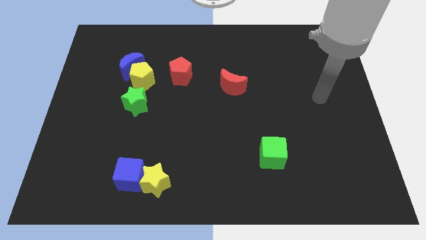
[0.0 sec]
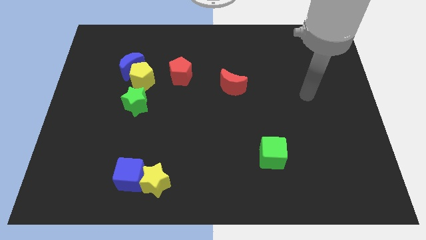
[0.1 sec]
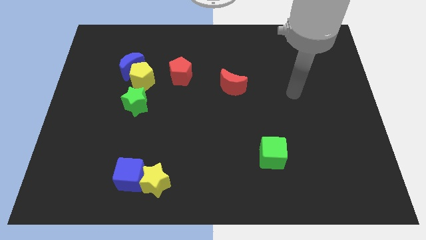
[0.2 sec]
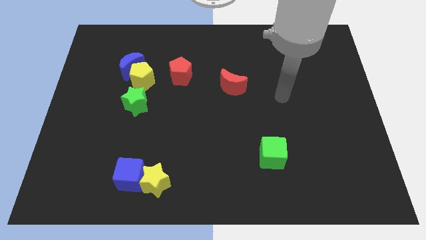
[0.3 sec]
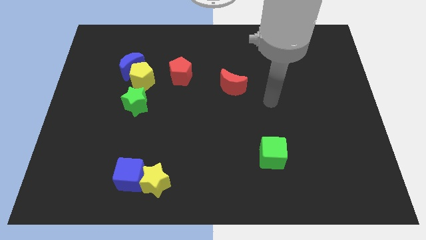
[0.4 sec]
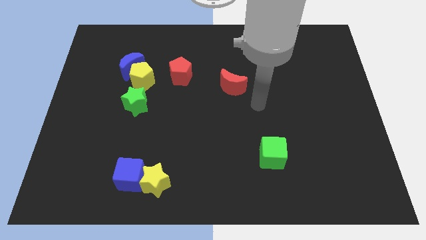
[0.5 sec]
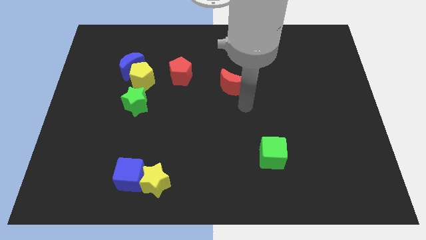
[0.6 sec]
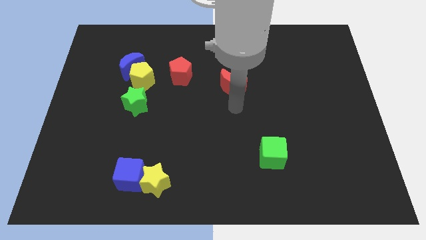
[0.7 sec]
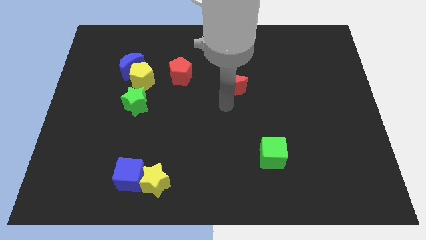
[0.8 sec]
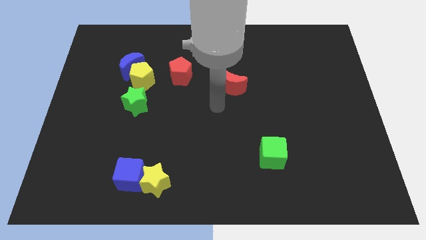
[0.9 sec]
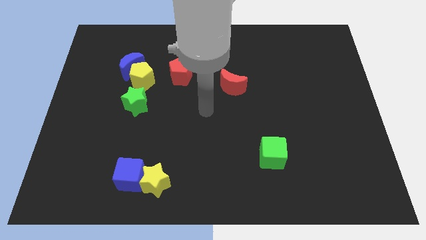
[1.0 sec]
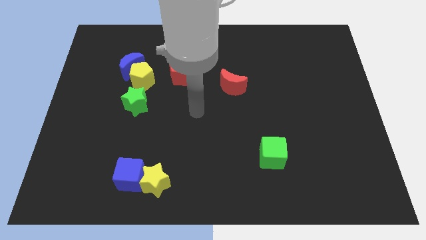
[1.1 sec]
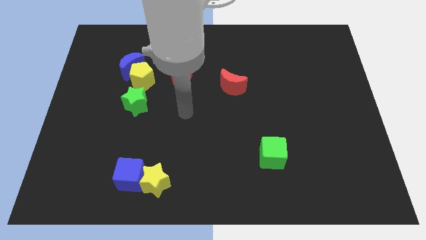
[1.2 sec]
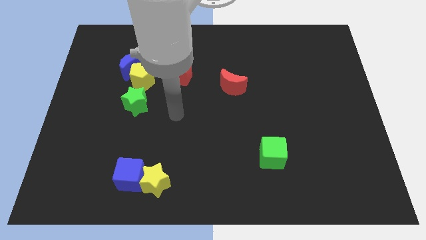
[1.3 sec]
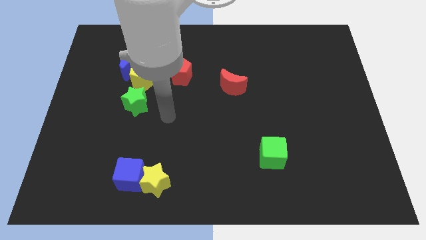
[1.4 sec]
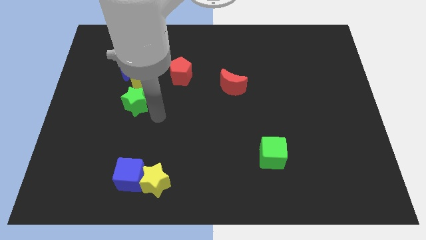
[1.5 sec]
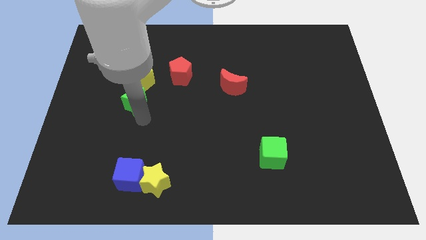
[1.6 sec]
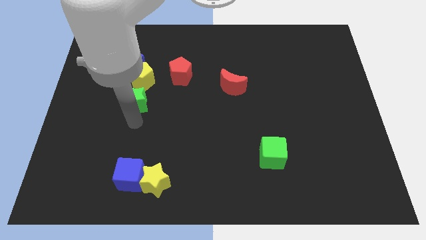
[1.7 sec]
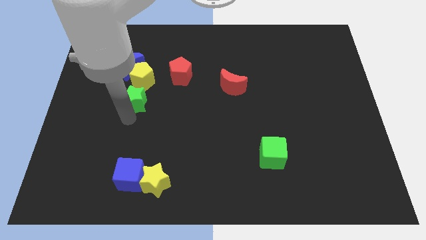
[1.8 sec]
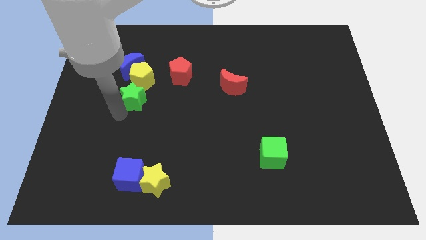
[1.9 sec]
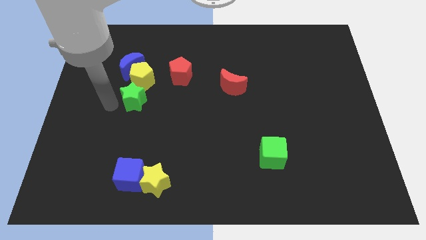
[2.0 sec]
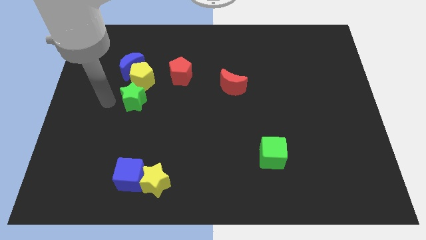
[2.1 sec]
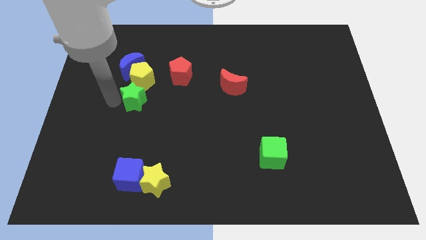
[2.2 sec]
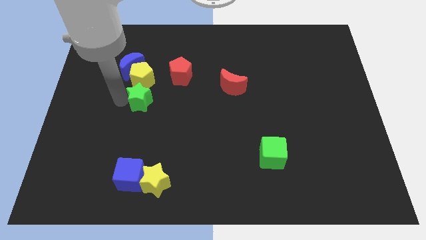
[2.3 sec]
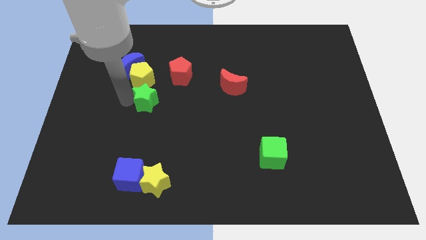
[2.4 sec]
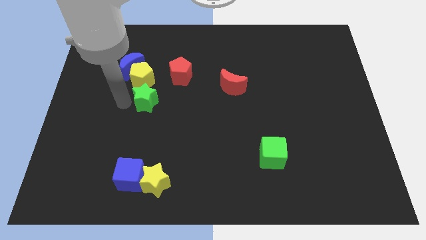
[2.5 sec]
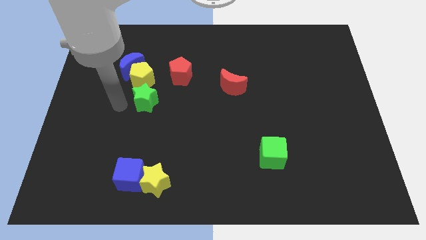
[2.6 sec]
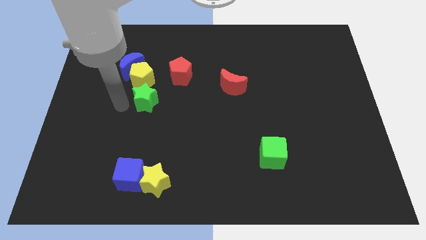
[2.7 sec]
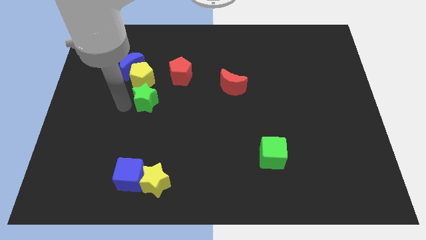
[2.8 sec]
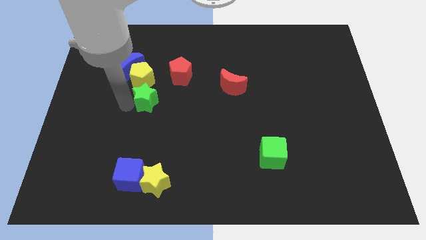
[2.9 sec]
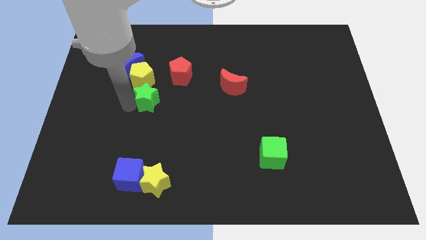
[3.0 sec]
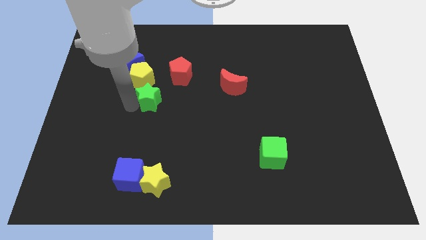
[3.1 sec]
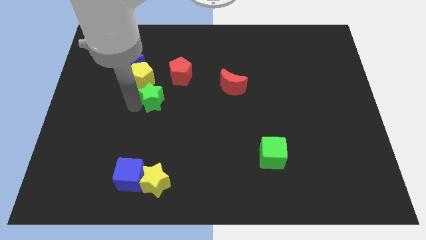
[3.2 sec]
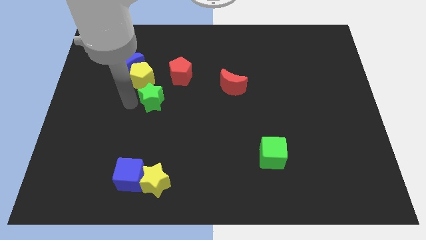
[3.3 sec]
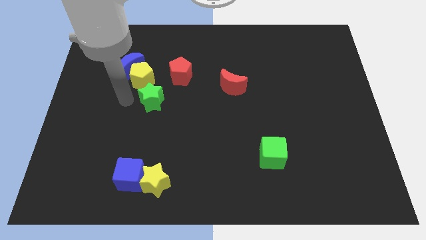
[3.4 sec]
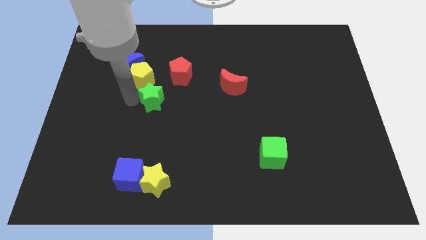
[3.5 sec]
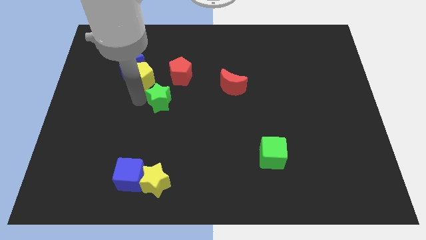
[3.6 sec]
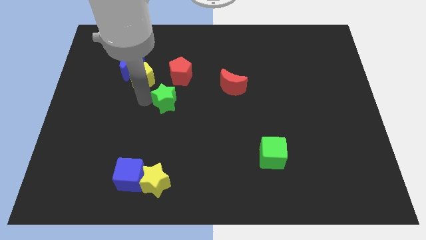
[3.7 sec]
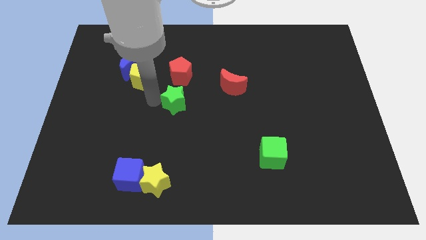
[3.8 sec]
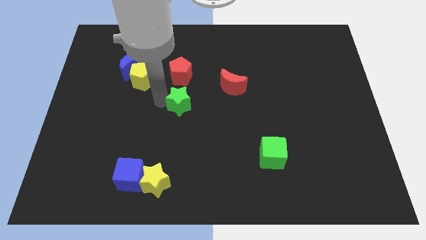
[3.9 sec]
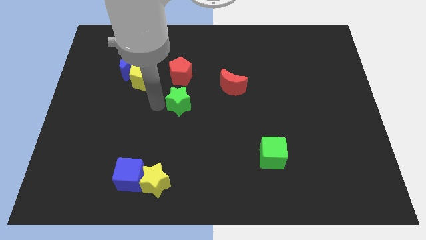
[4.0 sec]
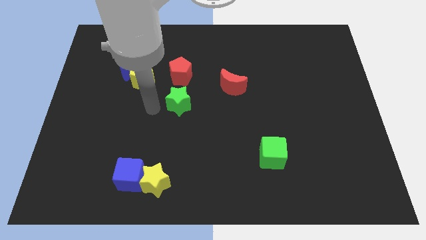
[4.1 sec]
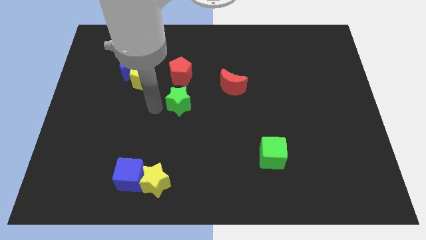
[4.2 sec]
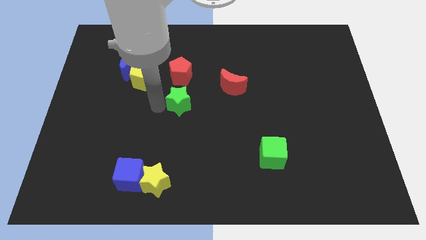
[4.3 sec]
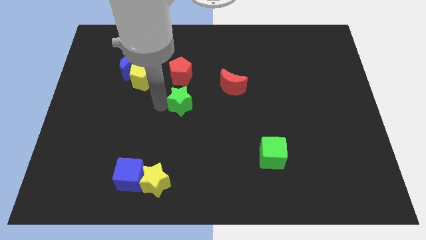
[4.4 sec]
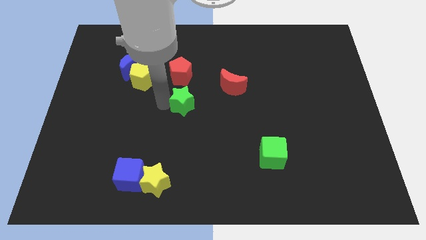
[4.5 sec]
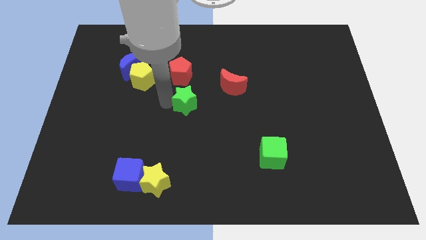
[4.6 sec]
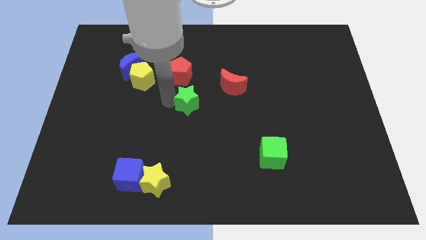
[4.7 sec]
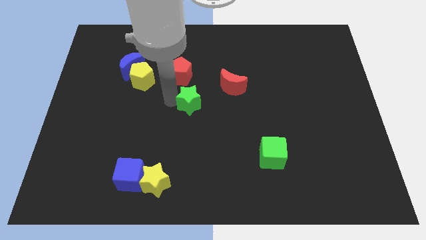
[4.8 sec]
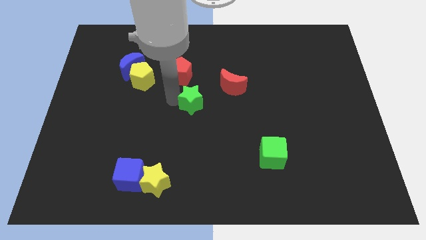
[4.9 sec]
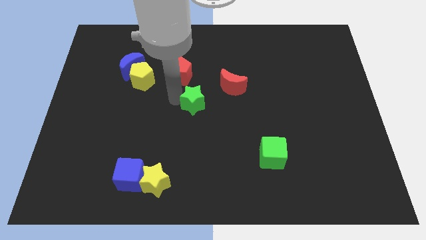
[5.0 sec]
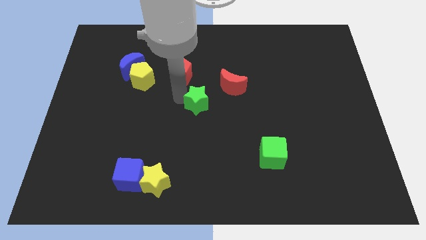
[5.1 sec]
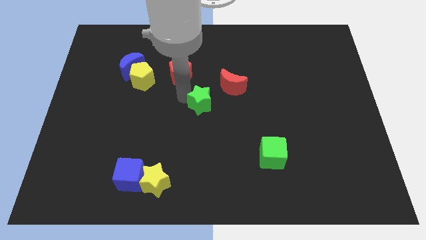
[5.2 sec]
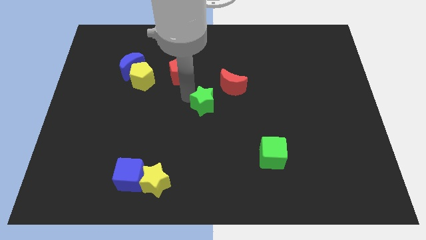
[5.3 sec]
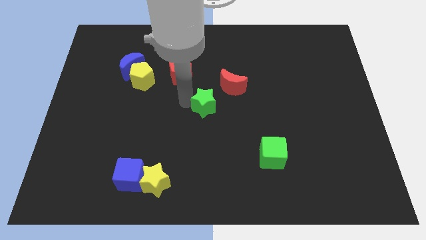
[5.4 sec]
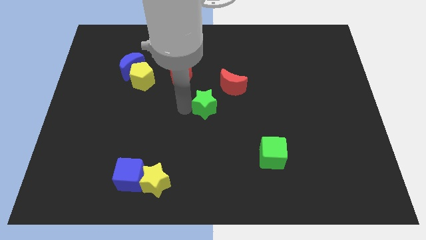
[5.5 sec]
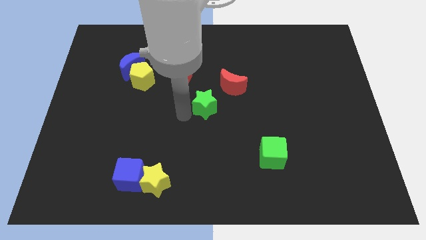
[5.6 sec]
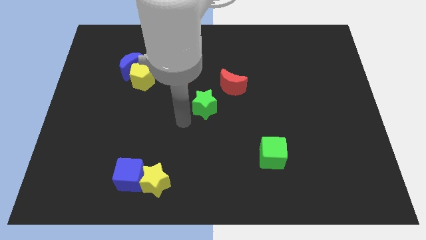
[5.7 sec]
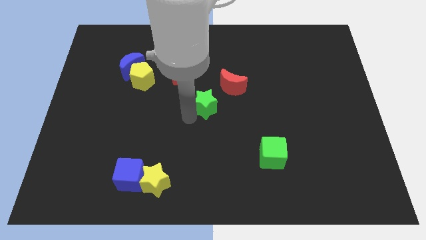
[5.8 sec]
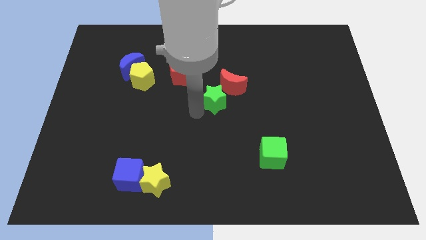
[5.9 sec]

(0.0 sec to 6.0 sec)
put the green star close to the red moon

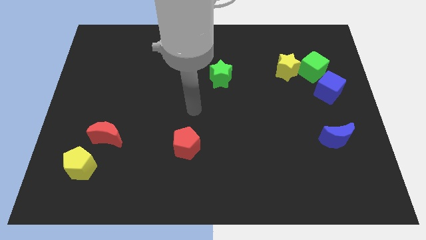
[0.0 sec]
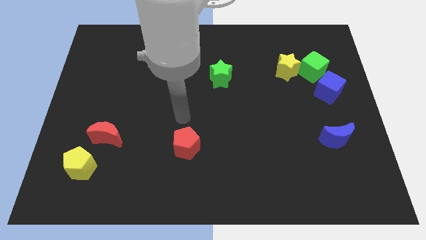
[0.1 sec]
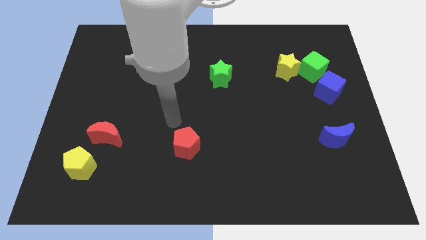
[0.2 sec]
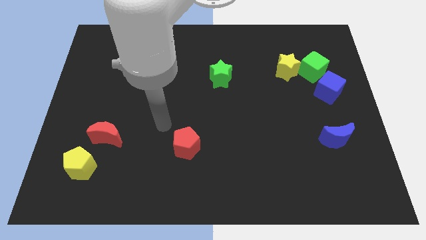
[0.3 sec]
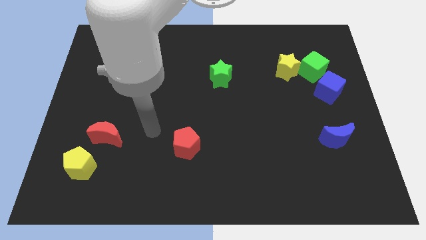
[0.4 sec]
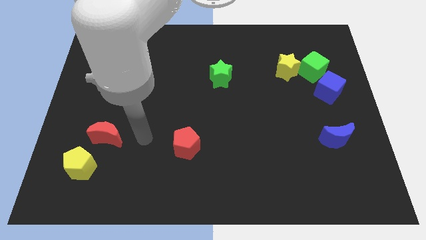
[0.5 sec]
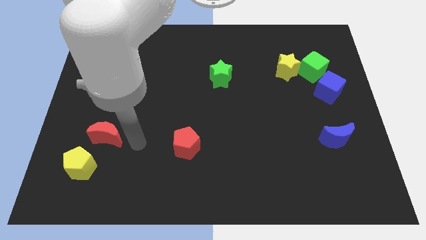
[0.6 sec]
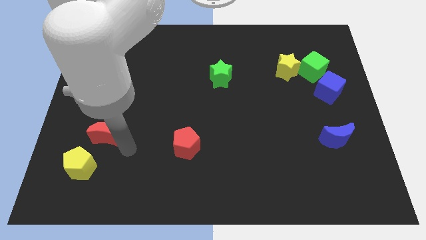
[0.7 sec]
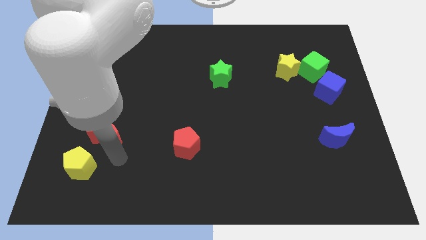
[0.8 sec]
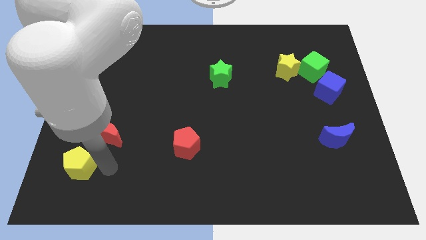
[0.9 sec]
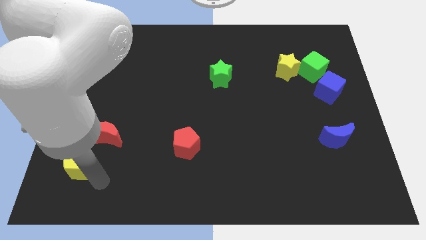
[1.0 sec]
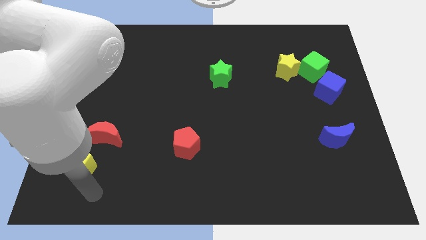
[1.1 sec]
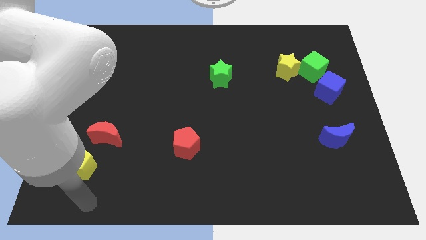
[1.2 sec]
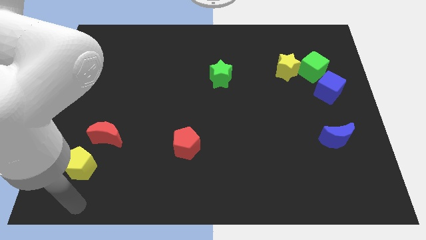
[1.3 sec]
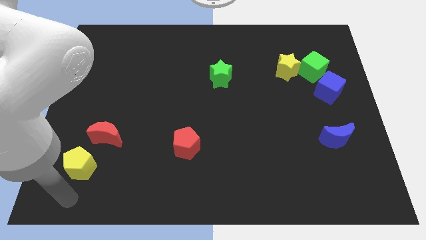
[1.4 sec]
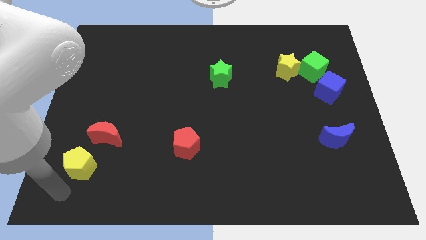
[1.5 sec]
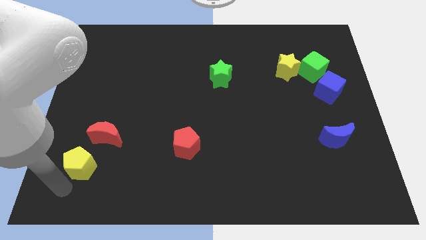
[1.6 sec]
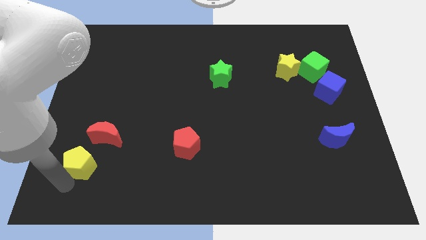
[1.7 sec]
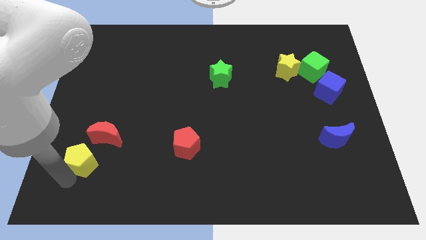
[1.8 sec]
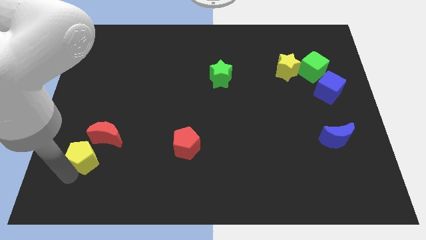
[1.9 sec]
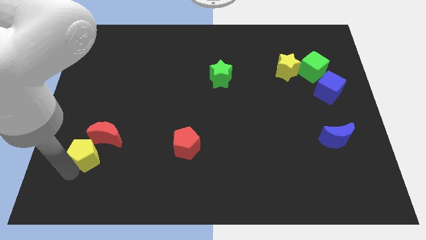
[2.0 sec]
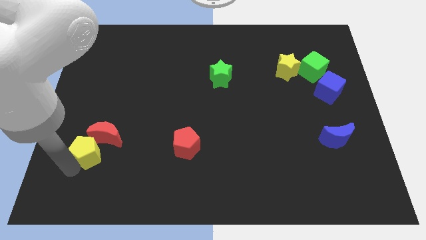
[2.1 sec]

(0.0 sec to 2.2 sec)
move the yellow pentagon towards the red moon
